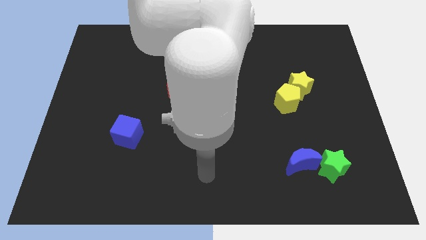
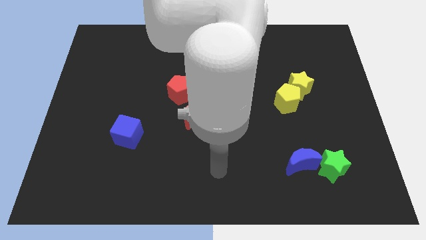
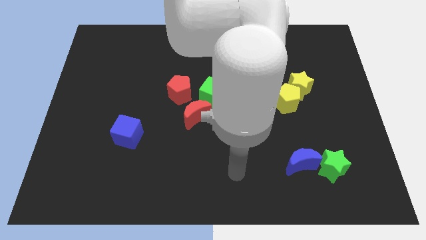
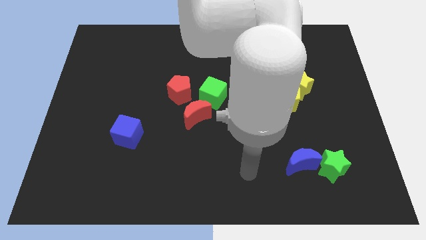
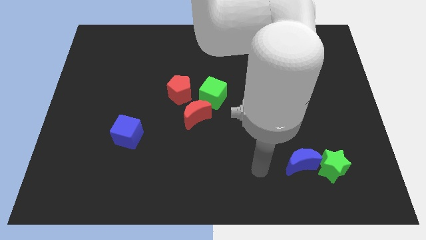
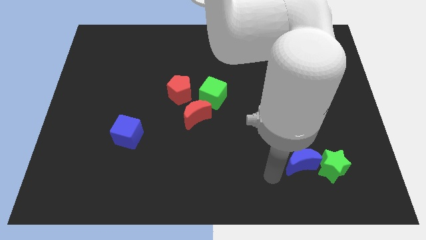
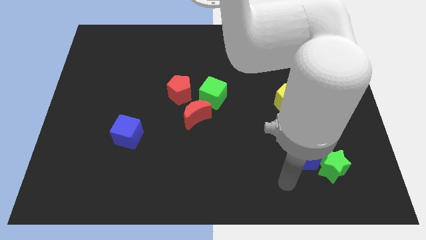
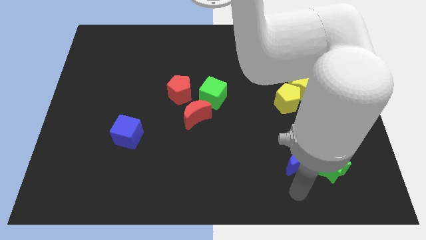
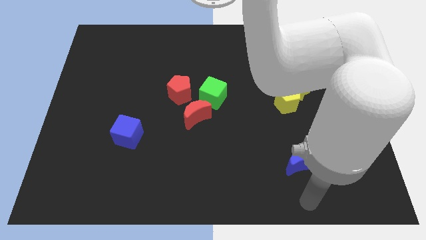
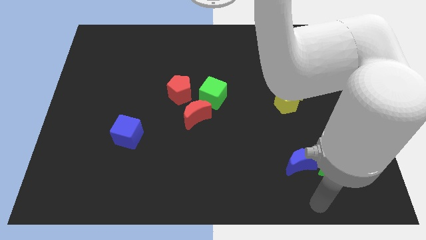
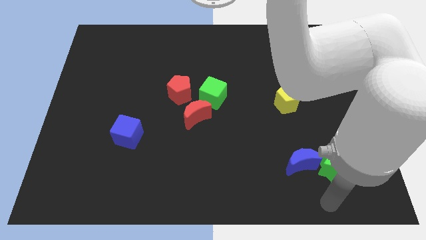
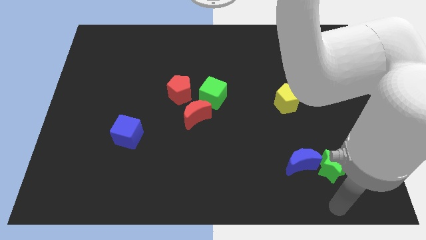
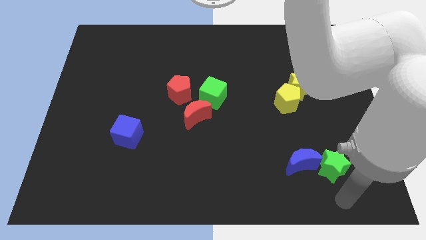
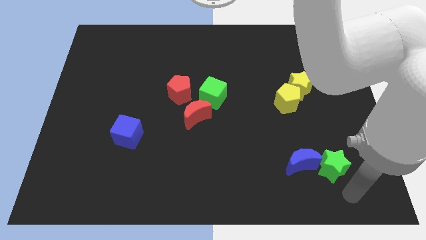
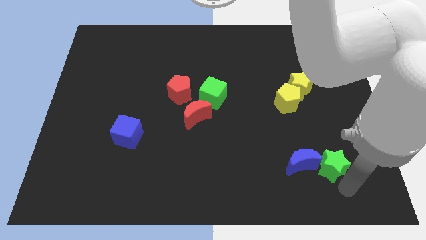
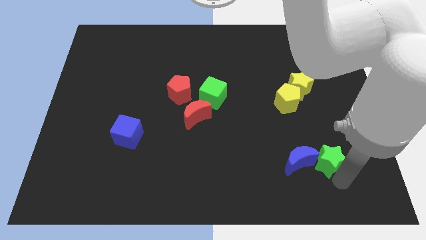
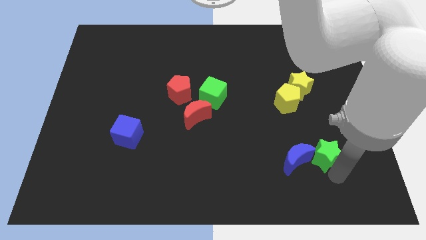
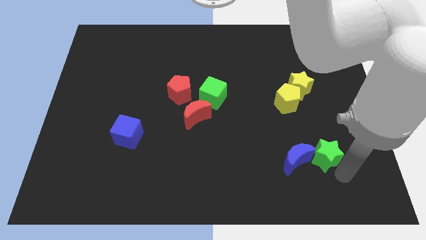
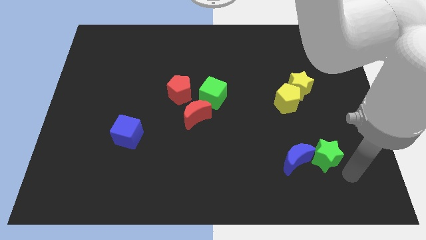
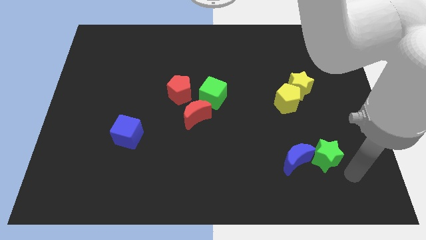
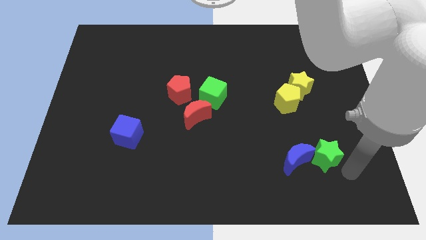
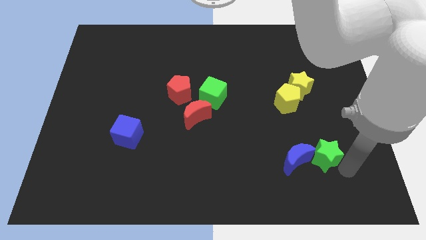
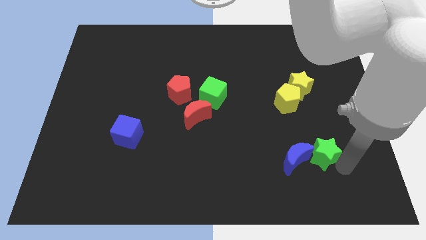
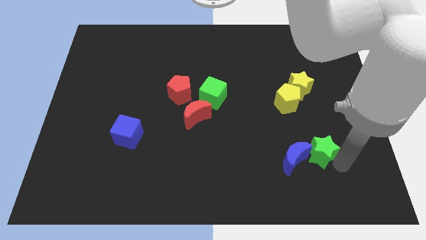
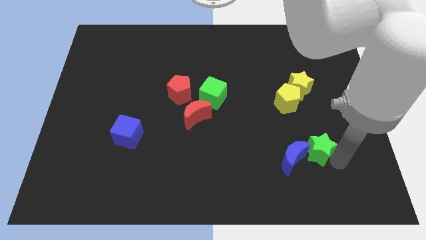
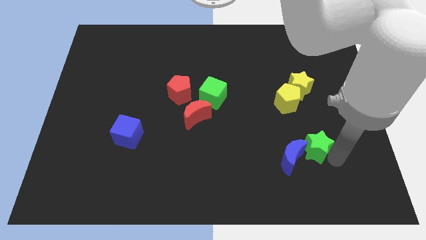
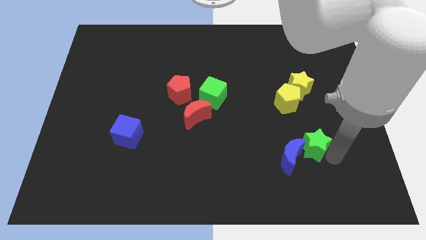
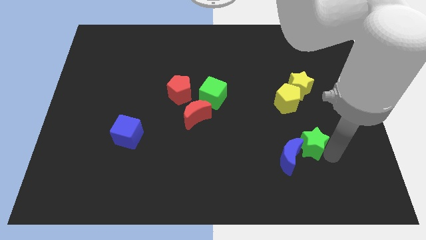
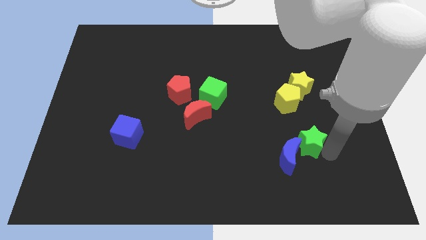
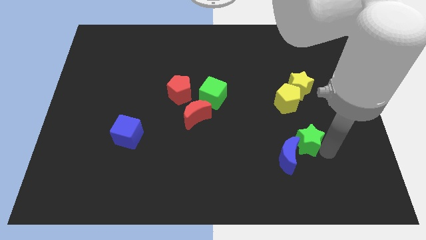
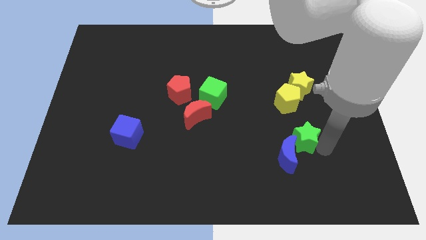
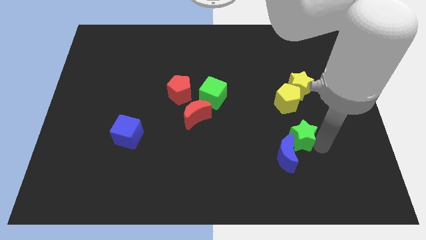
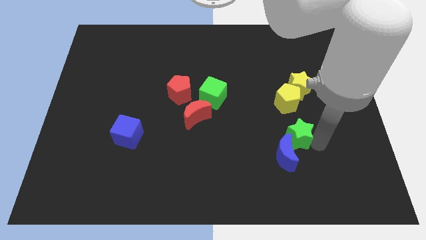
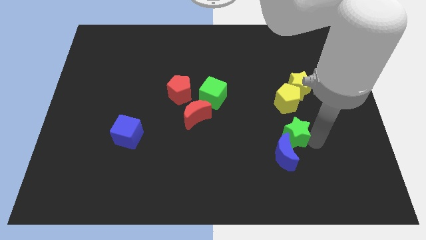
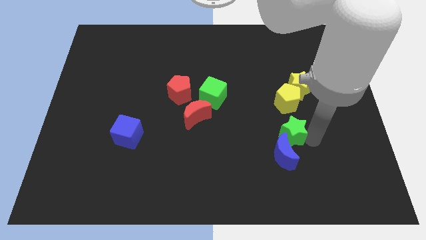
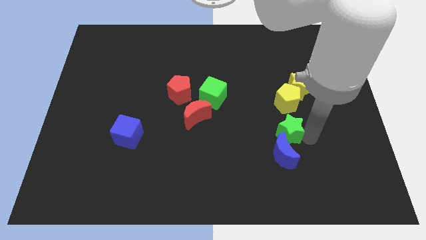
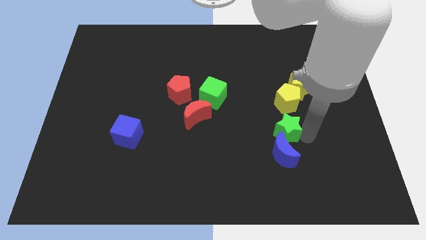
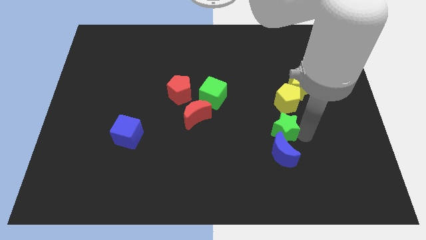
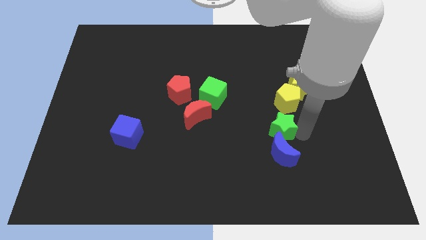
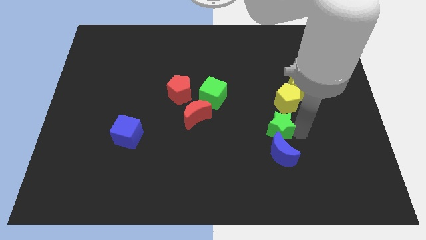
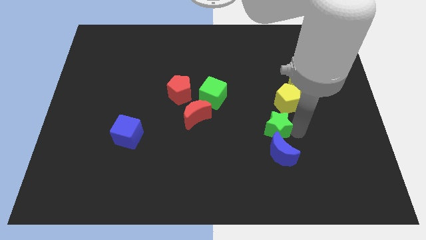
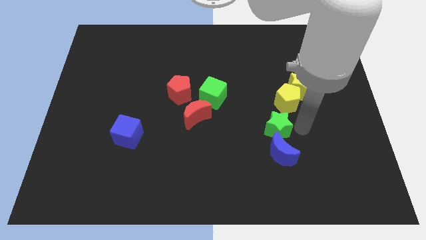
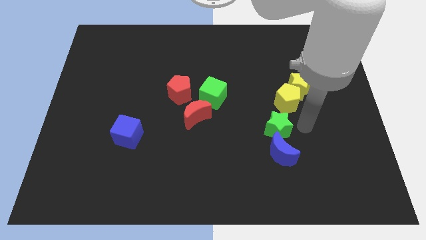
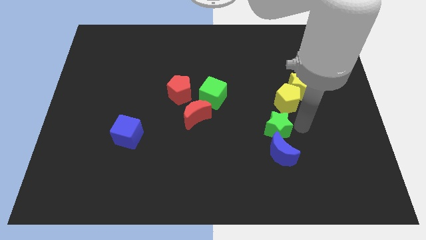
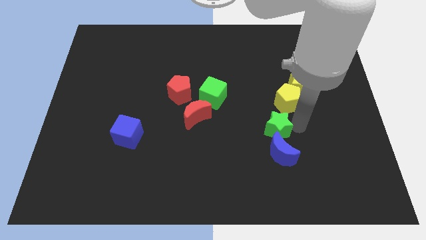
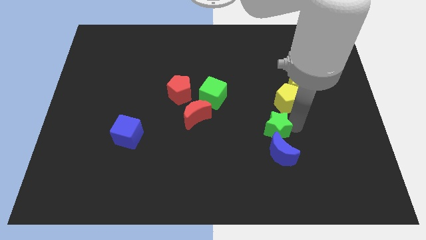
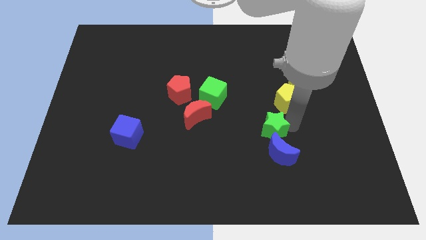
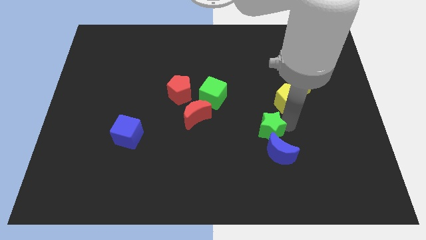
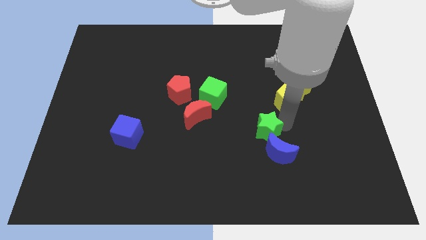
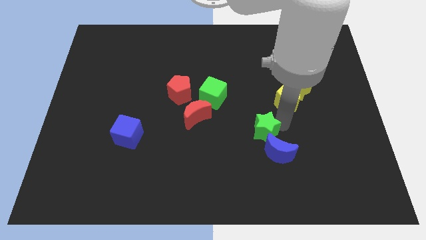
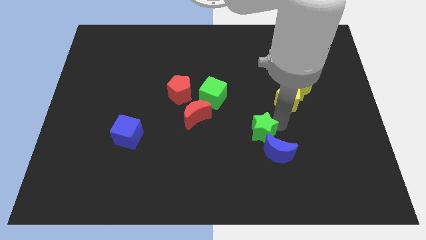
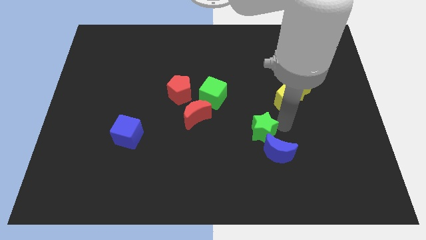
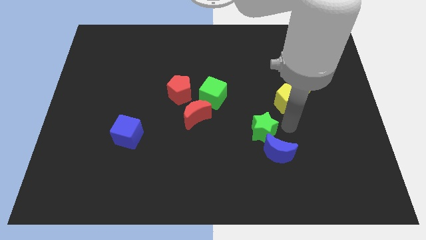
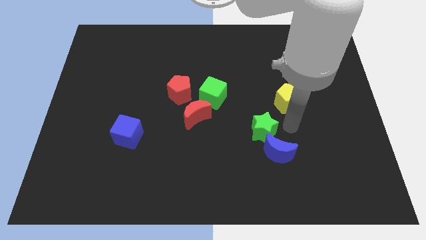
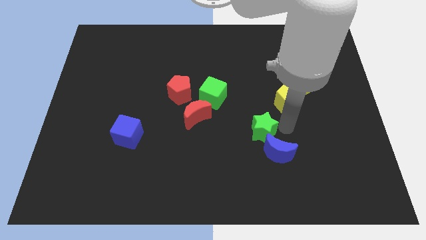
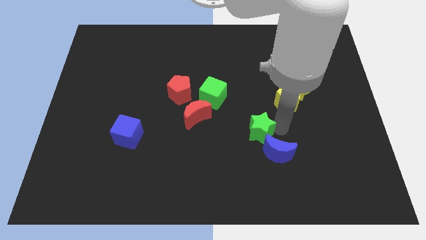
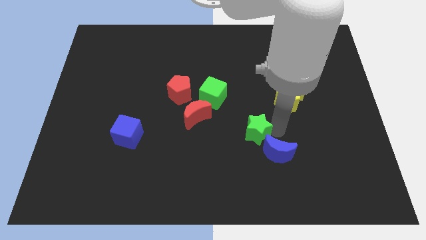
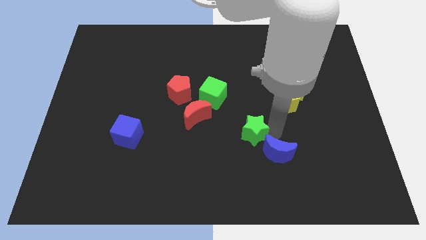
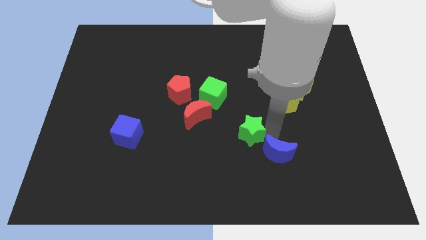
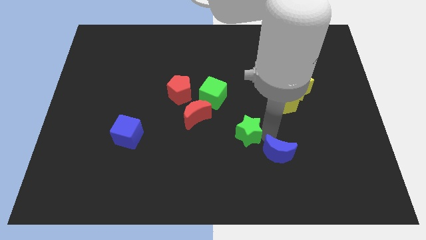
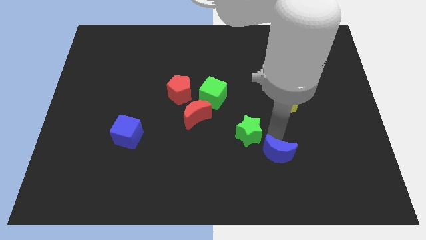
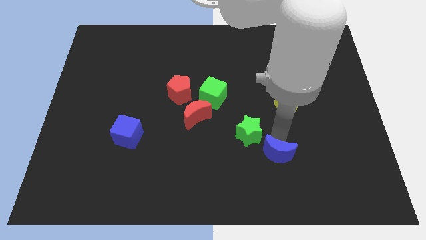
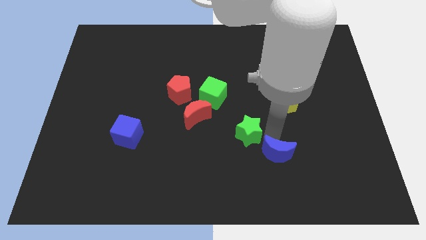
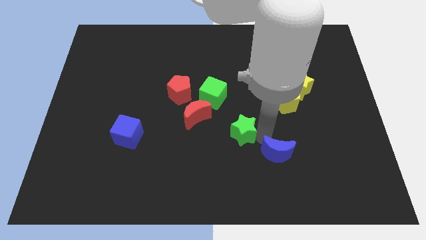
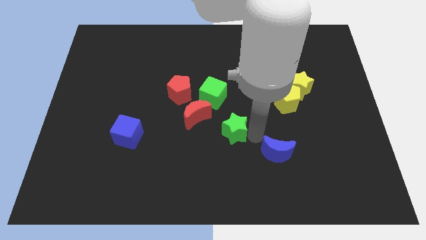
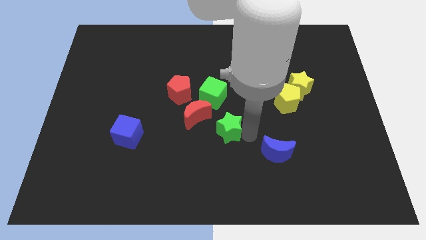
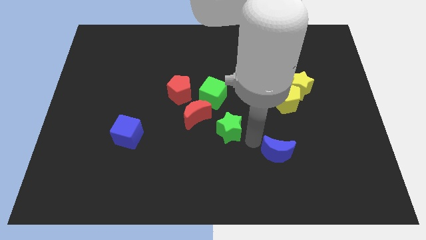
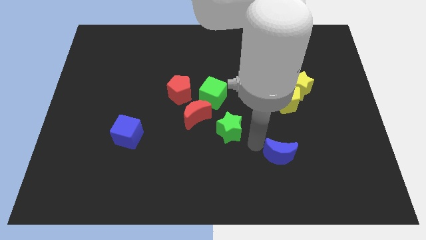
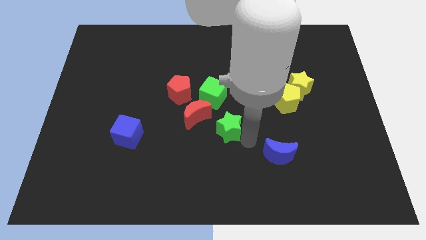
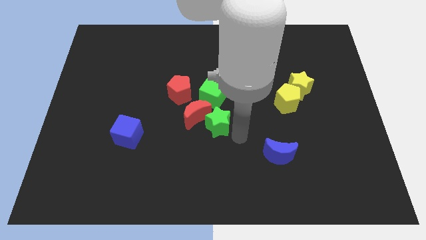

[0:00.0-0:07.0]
push the green star to the red moon
